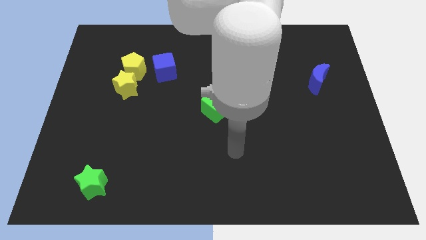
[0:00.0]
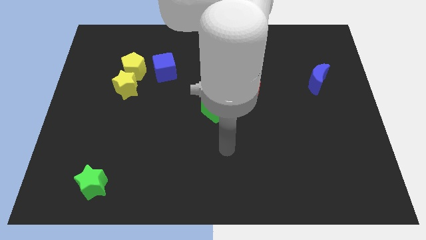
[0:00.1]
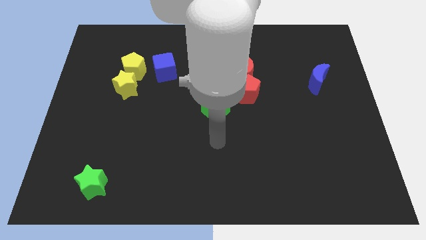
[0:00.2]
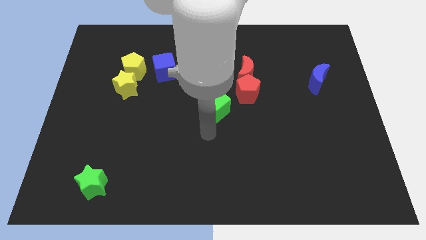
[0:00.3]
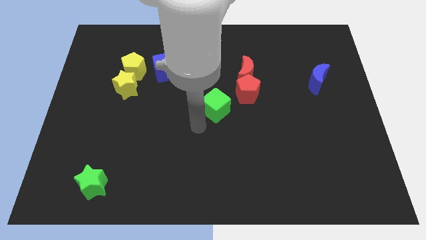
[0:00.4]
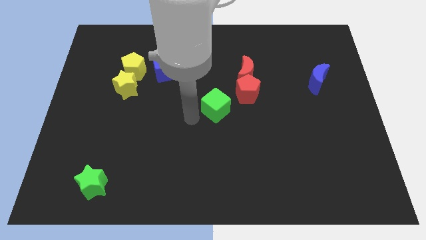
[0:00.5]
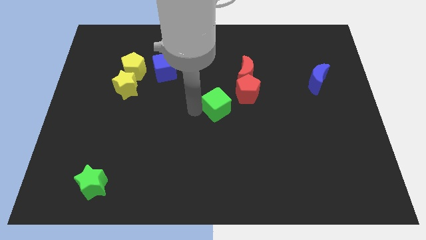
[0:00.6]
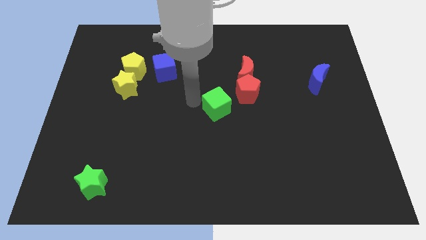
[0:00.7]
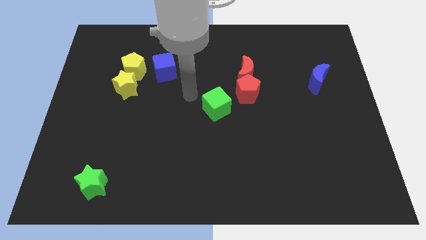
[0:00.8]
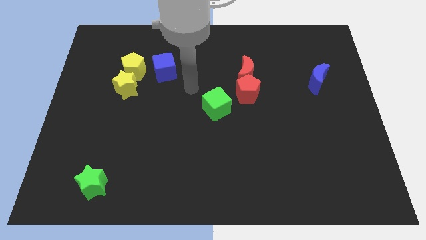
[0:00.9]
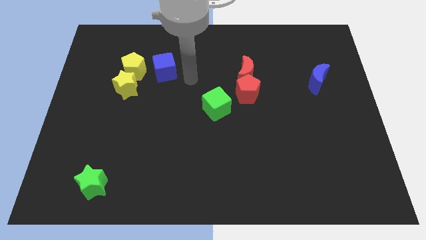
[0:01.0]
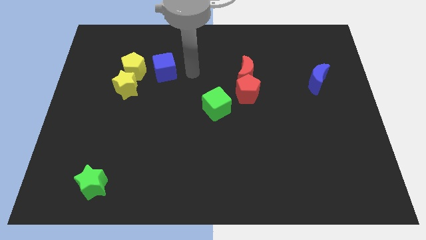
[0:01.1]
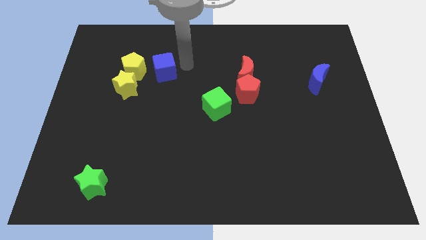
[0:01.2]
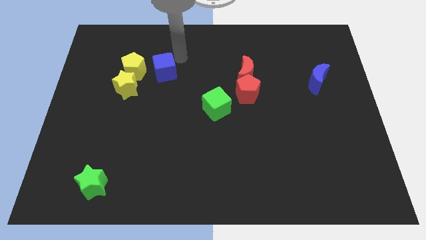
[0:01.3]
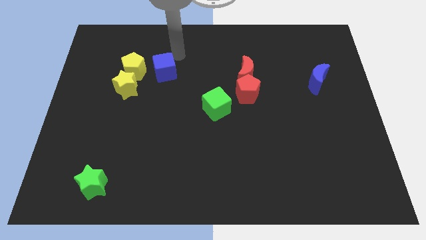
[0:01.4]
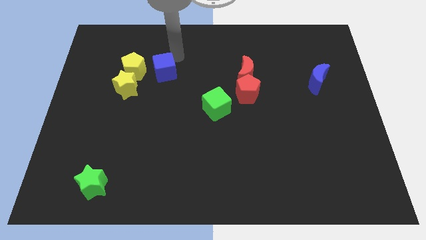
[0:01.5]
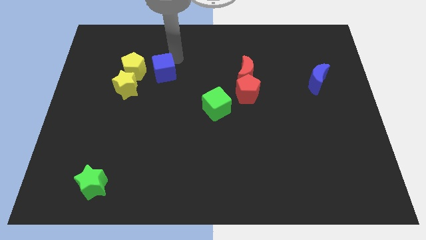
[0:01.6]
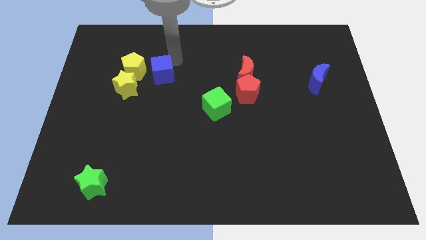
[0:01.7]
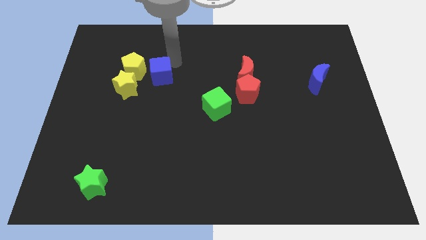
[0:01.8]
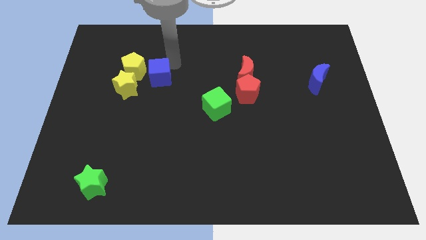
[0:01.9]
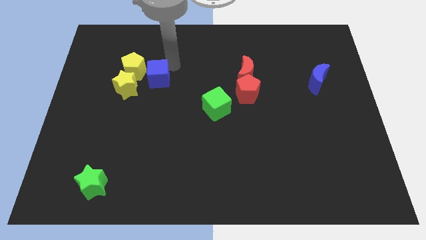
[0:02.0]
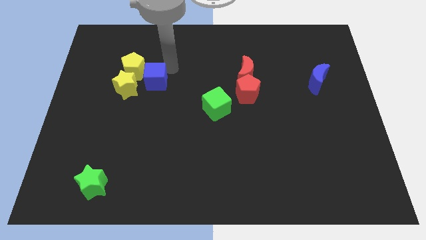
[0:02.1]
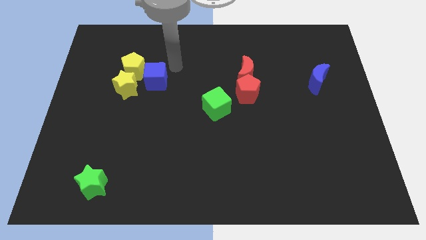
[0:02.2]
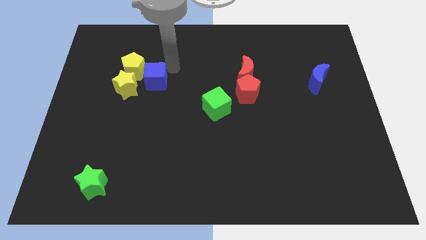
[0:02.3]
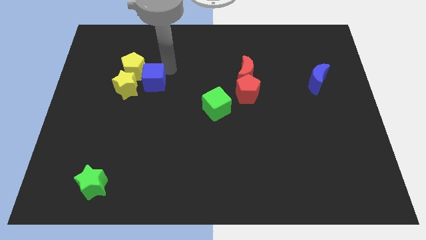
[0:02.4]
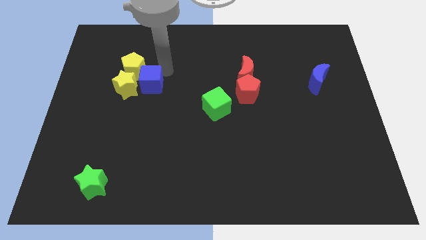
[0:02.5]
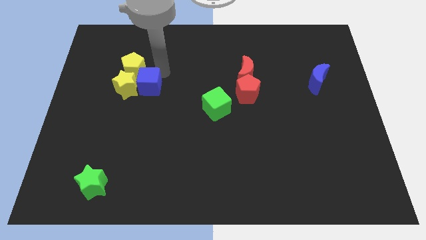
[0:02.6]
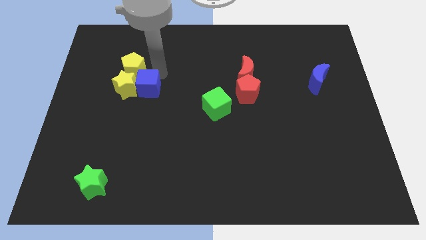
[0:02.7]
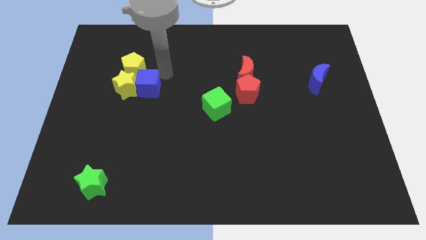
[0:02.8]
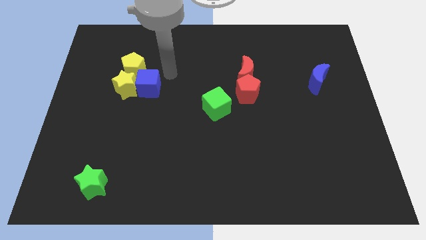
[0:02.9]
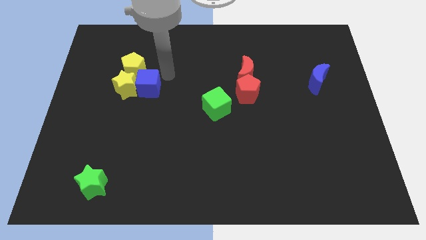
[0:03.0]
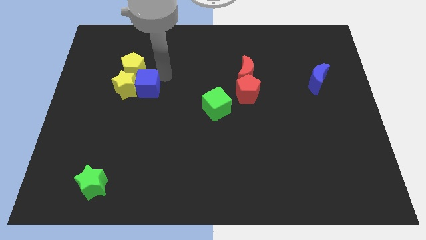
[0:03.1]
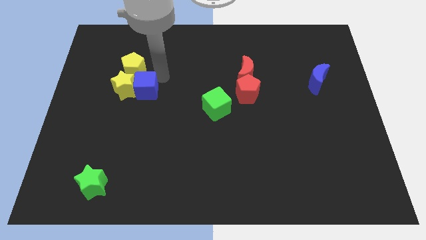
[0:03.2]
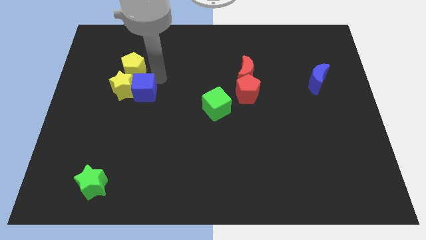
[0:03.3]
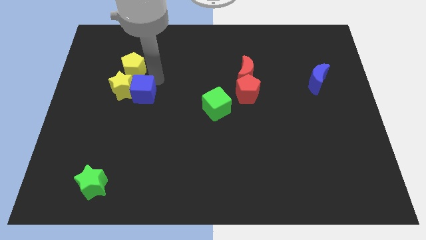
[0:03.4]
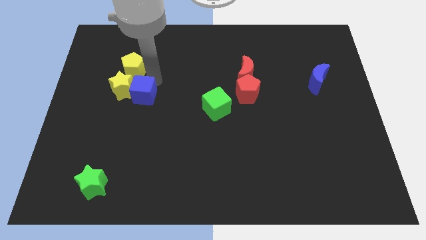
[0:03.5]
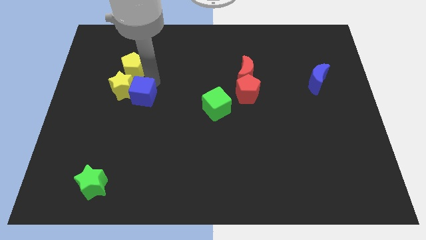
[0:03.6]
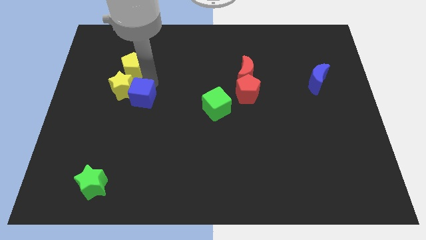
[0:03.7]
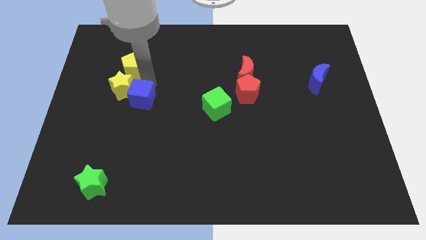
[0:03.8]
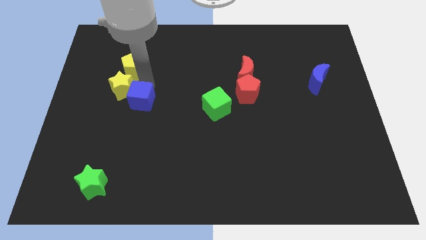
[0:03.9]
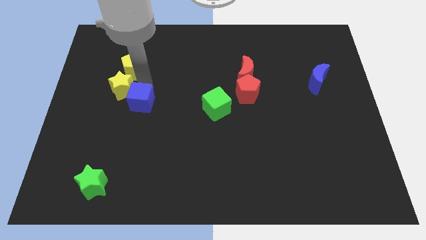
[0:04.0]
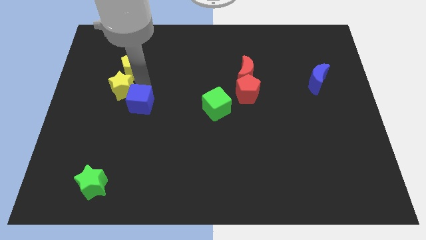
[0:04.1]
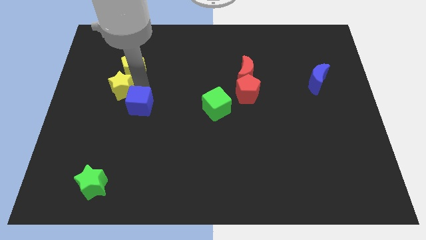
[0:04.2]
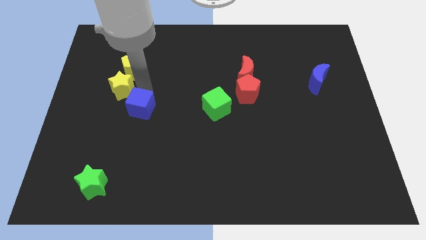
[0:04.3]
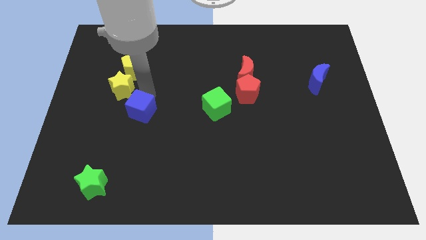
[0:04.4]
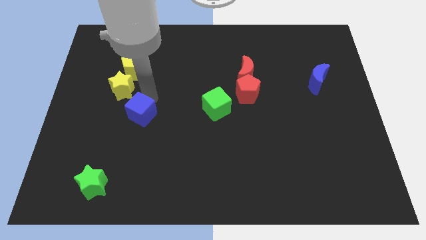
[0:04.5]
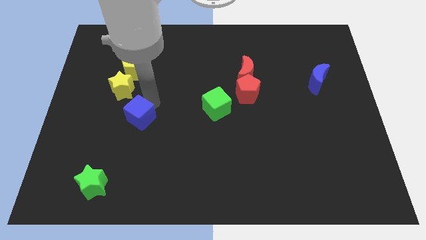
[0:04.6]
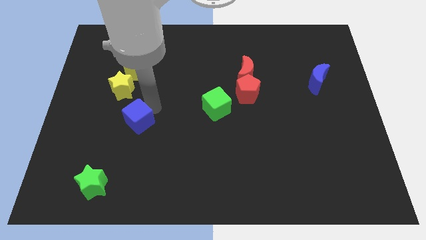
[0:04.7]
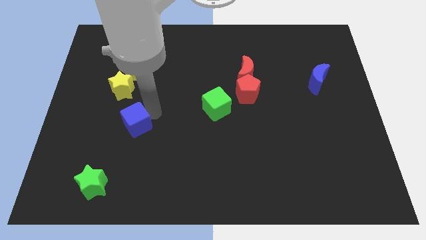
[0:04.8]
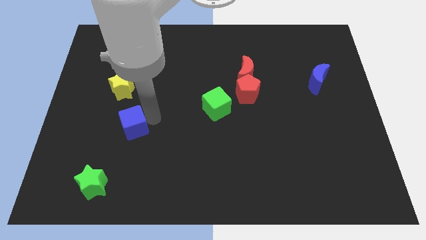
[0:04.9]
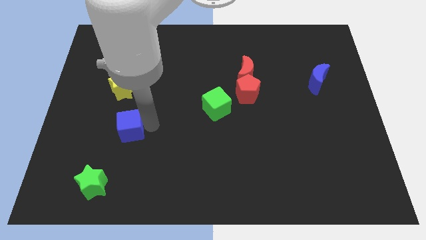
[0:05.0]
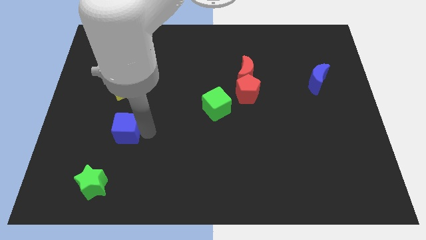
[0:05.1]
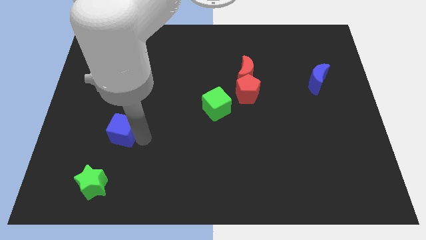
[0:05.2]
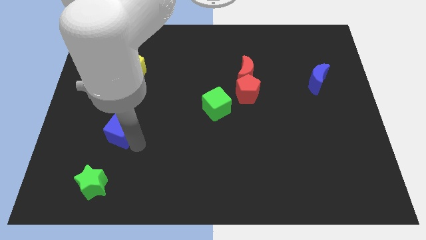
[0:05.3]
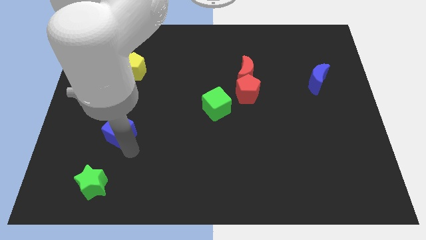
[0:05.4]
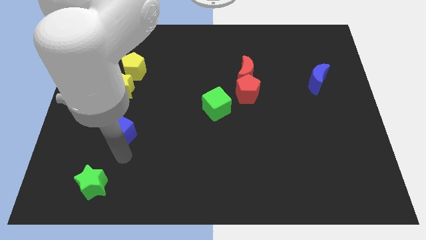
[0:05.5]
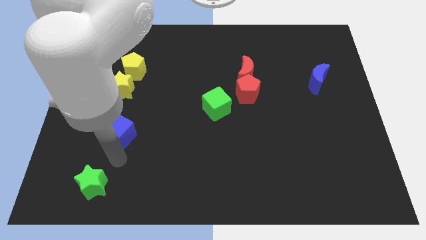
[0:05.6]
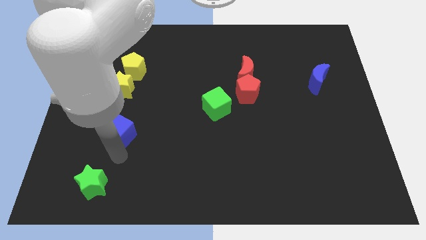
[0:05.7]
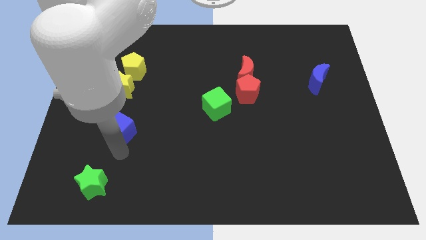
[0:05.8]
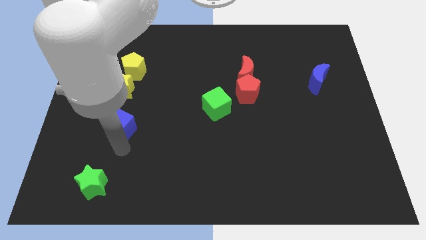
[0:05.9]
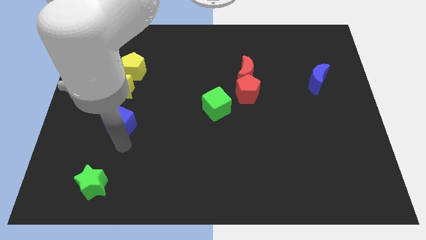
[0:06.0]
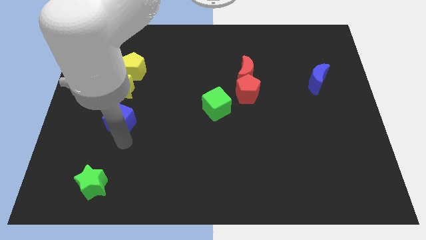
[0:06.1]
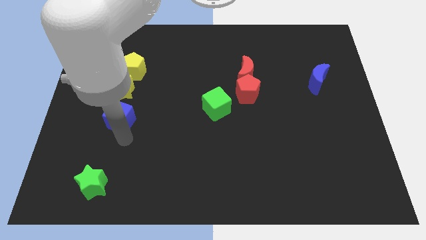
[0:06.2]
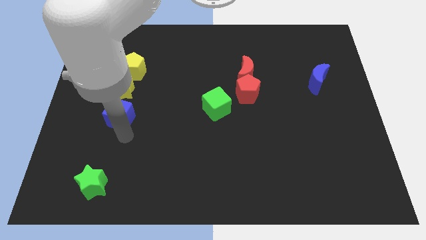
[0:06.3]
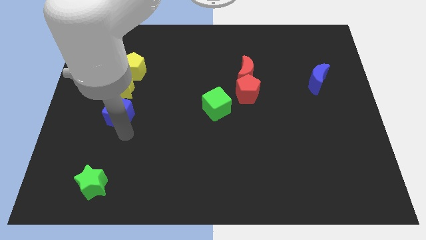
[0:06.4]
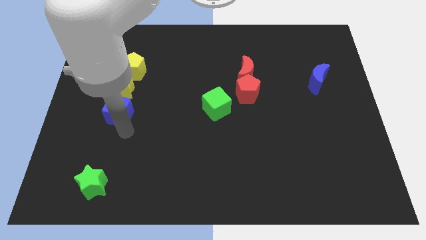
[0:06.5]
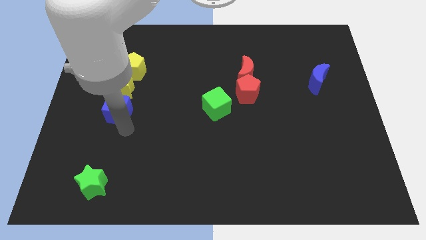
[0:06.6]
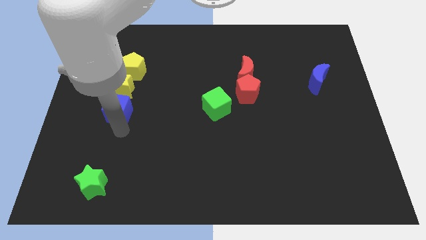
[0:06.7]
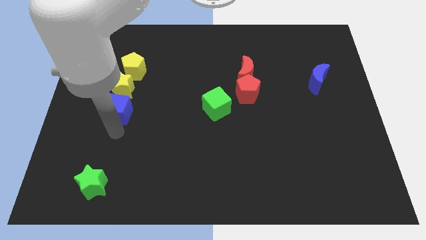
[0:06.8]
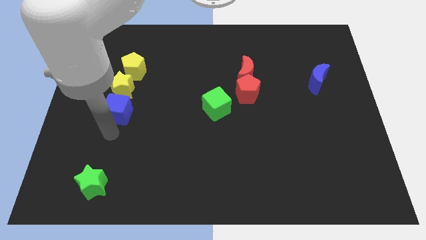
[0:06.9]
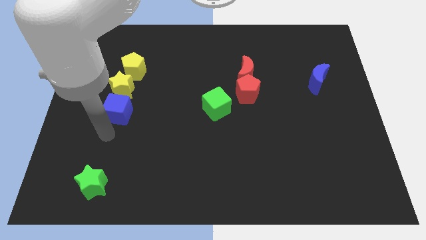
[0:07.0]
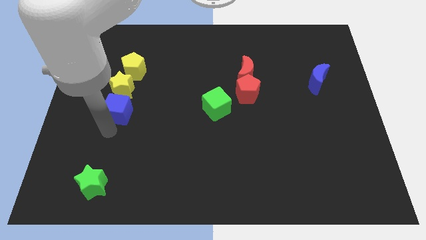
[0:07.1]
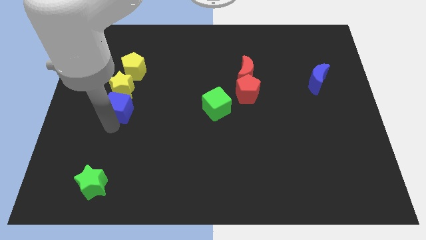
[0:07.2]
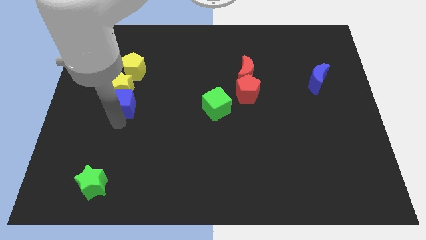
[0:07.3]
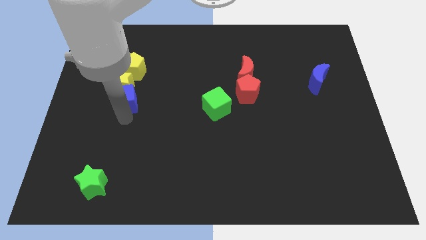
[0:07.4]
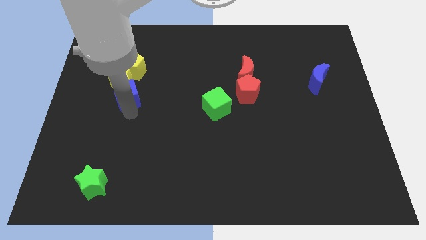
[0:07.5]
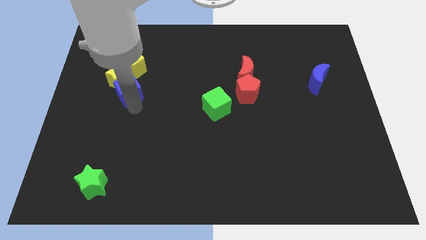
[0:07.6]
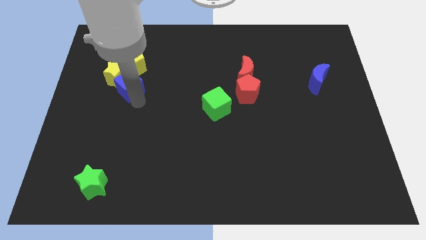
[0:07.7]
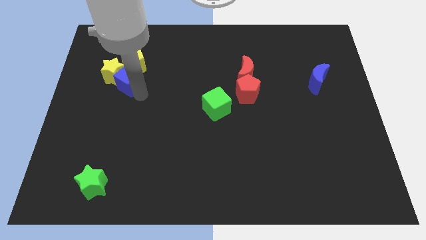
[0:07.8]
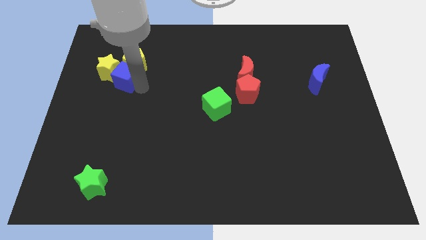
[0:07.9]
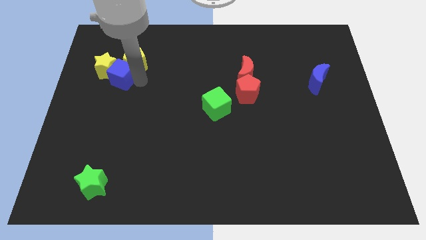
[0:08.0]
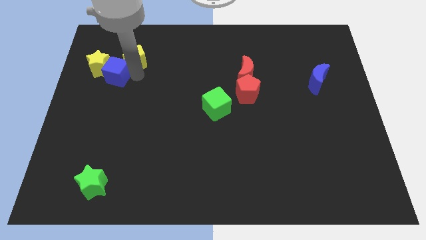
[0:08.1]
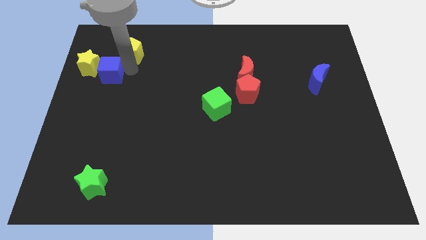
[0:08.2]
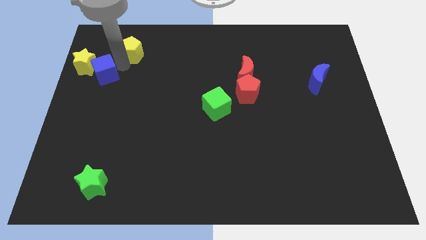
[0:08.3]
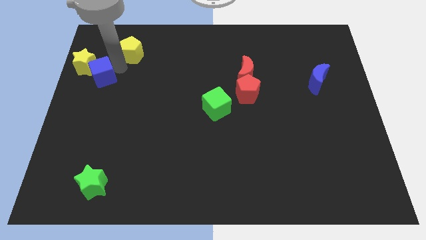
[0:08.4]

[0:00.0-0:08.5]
push the blue cube to the left side of the board
